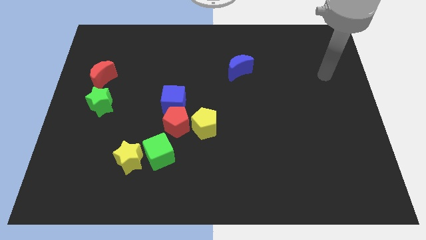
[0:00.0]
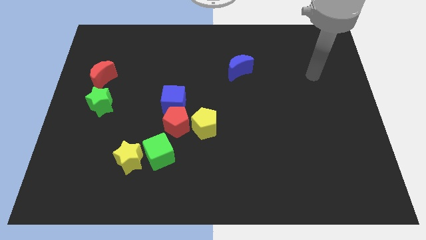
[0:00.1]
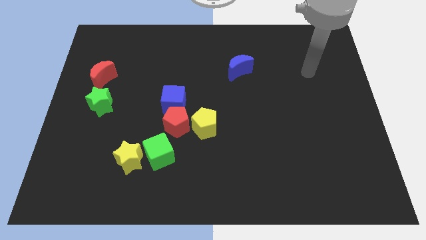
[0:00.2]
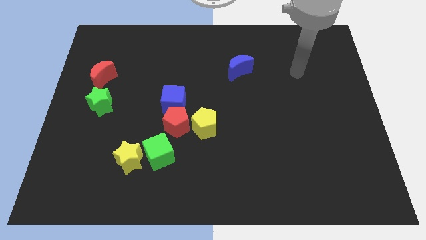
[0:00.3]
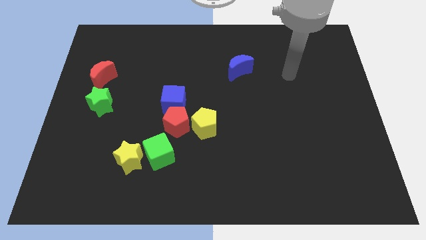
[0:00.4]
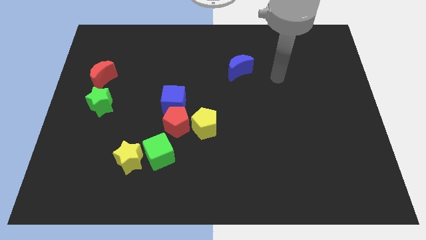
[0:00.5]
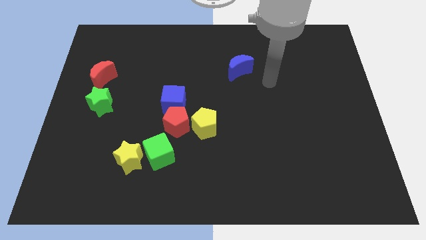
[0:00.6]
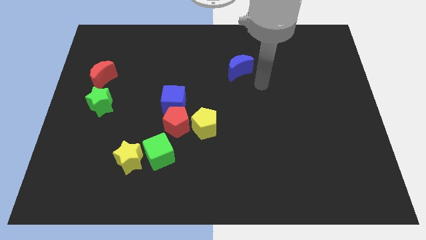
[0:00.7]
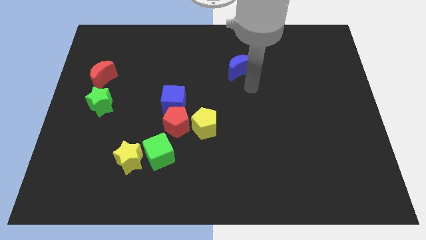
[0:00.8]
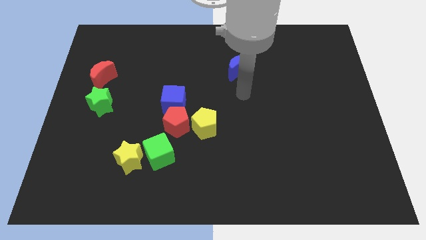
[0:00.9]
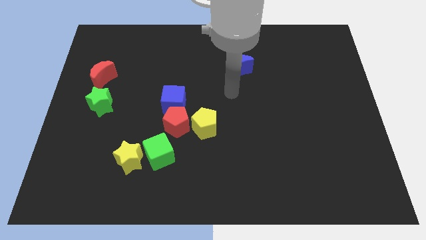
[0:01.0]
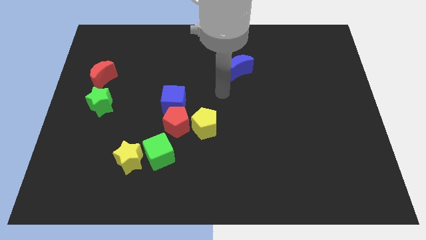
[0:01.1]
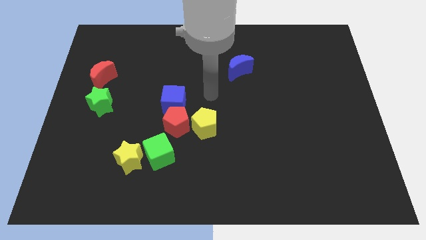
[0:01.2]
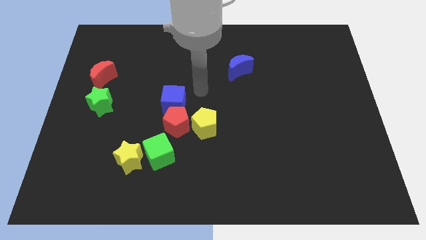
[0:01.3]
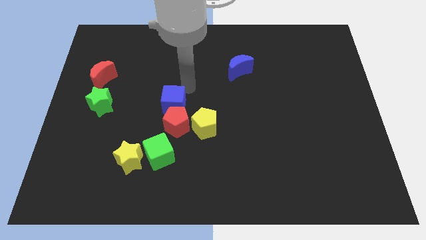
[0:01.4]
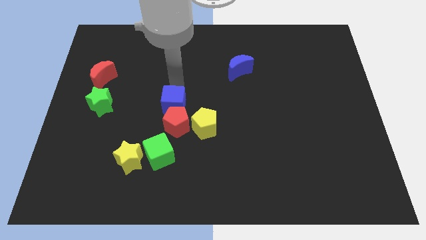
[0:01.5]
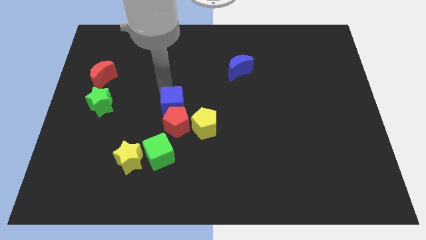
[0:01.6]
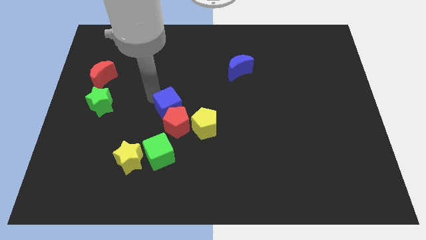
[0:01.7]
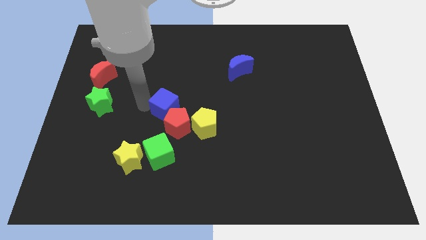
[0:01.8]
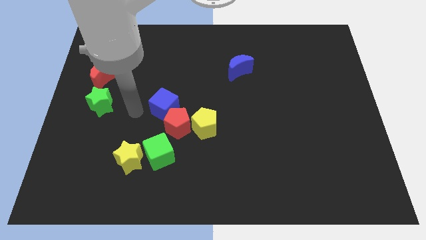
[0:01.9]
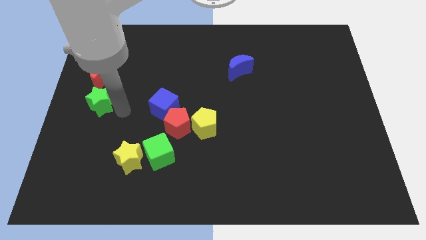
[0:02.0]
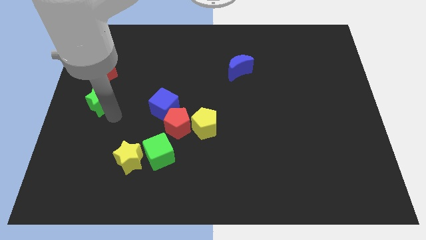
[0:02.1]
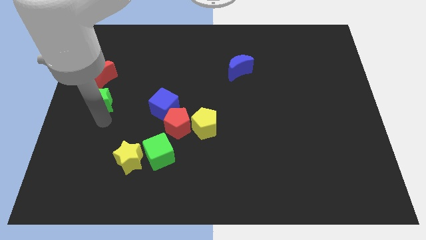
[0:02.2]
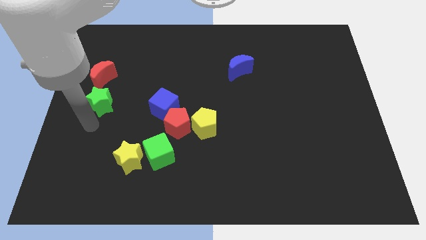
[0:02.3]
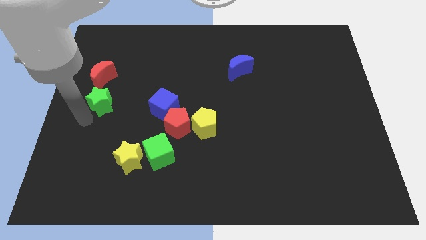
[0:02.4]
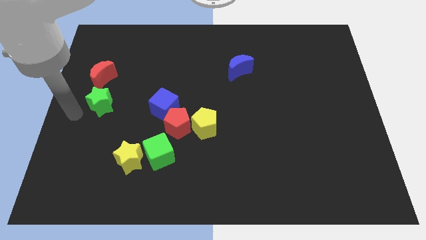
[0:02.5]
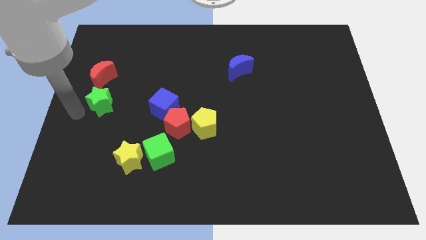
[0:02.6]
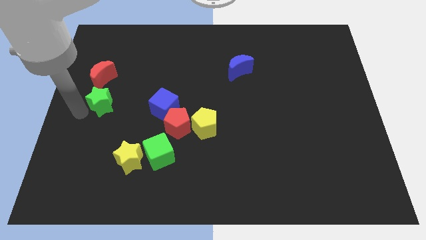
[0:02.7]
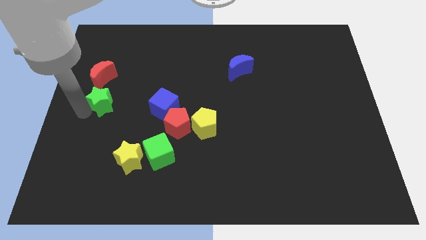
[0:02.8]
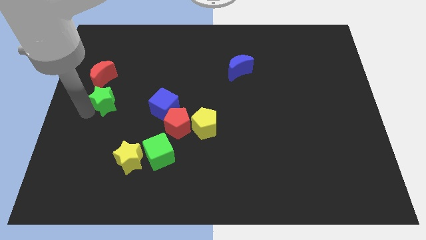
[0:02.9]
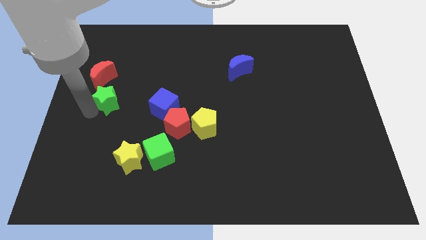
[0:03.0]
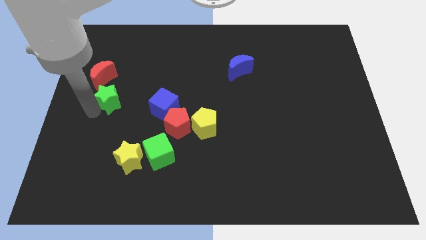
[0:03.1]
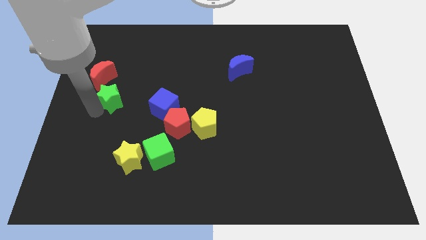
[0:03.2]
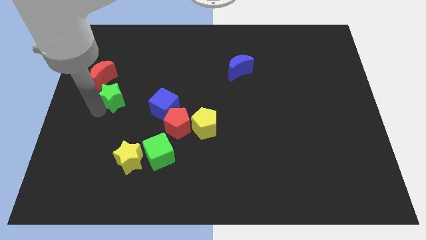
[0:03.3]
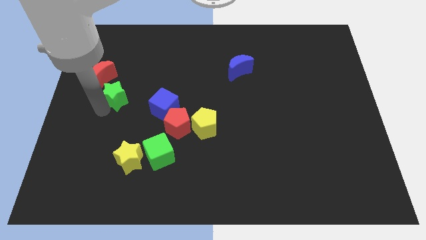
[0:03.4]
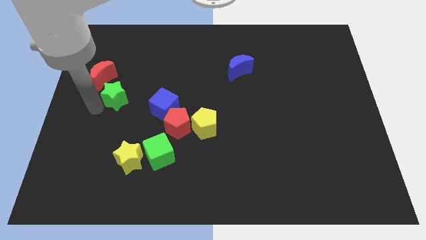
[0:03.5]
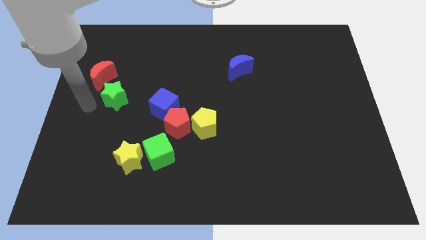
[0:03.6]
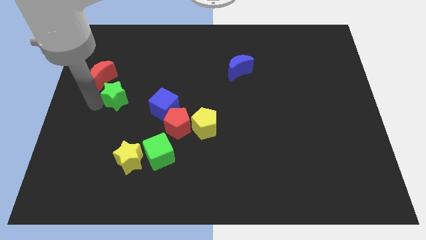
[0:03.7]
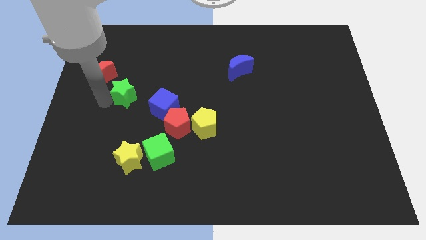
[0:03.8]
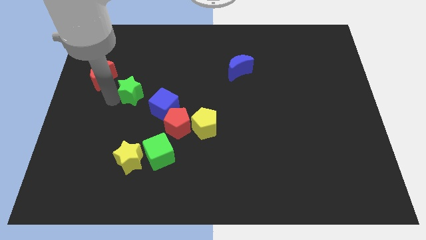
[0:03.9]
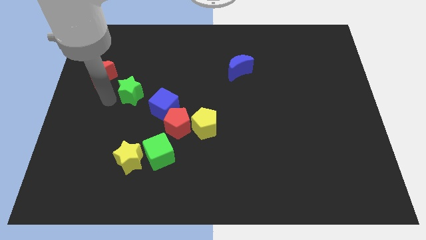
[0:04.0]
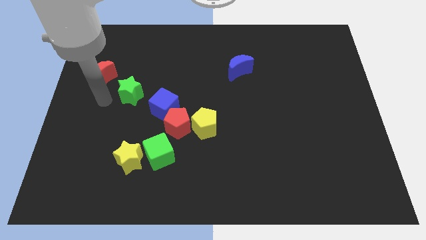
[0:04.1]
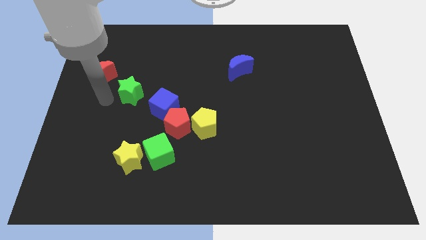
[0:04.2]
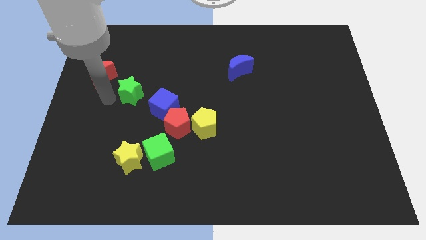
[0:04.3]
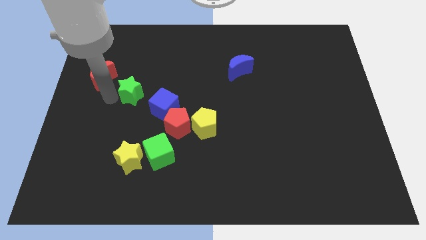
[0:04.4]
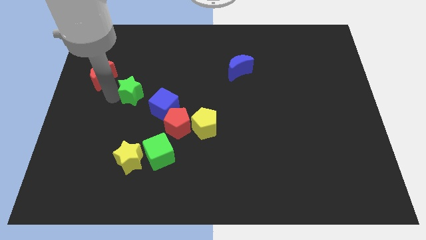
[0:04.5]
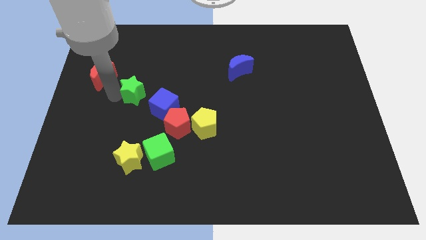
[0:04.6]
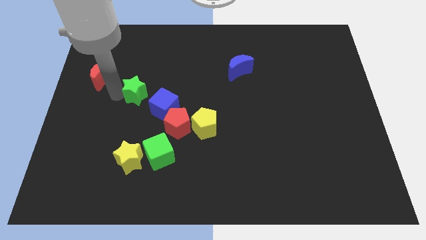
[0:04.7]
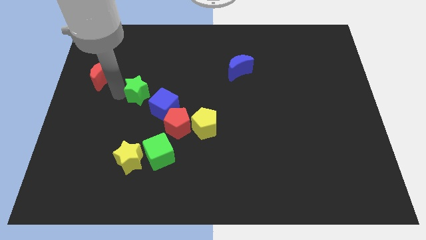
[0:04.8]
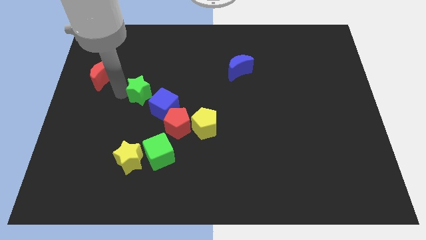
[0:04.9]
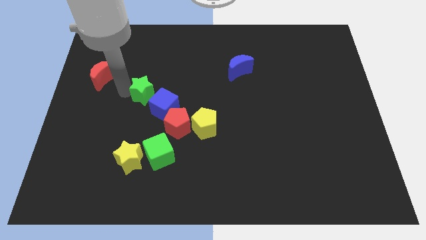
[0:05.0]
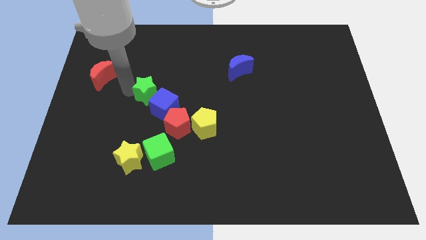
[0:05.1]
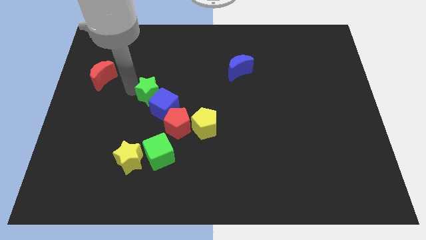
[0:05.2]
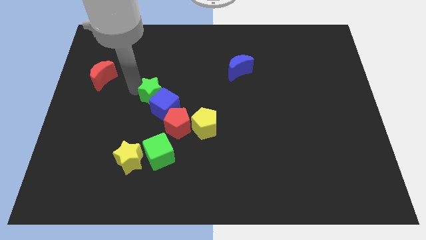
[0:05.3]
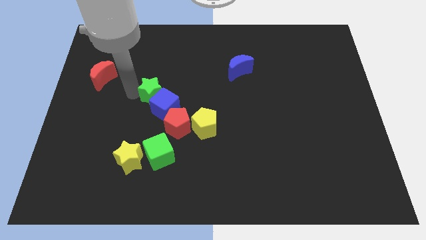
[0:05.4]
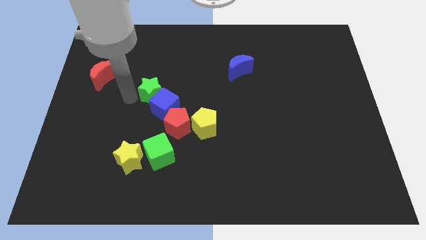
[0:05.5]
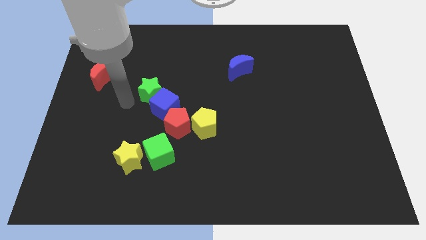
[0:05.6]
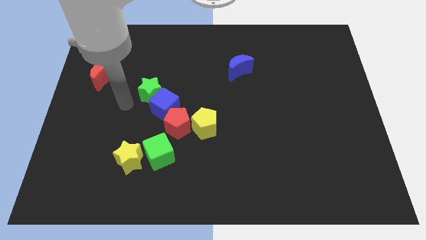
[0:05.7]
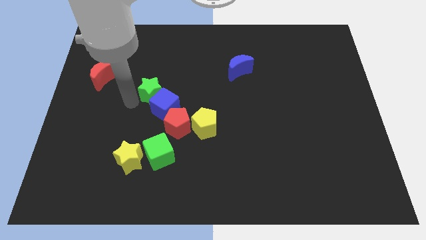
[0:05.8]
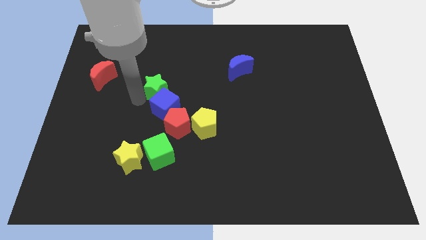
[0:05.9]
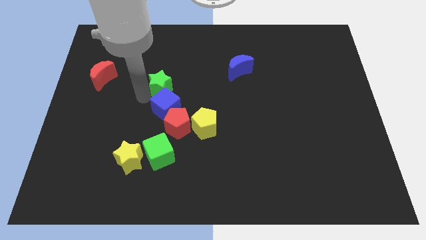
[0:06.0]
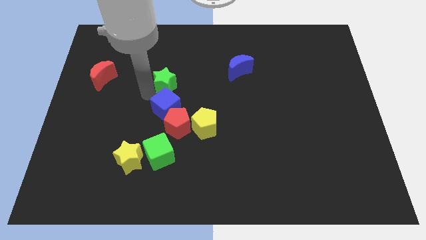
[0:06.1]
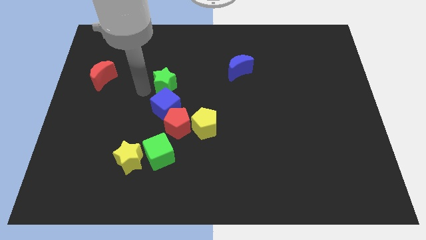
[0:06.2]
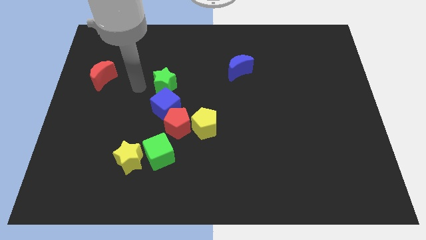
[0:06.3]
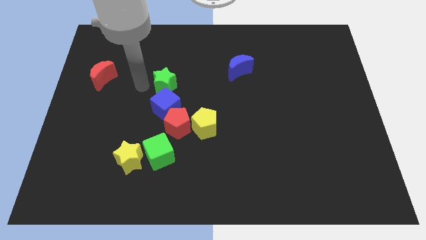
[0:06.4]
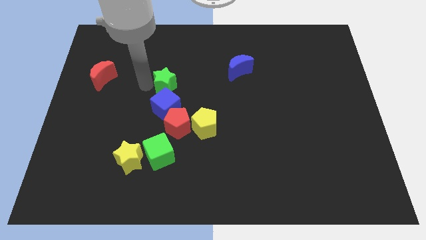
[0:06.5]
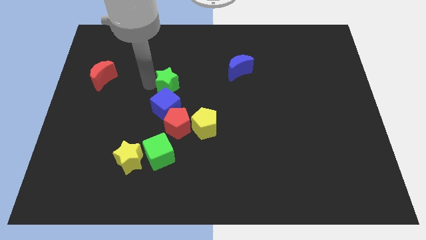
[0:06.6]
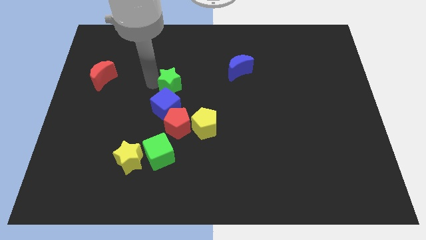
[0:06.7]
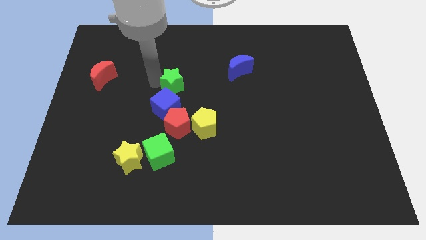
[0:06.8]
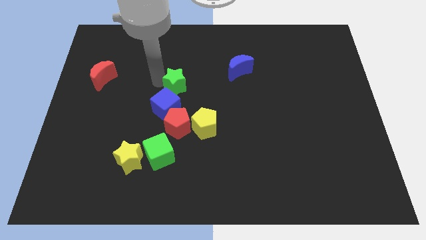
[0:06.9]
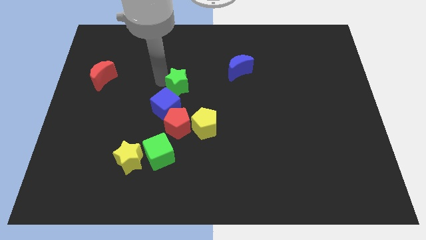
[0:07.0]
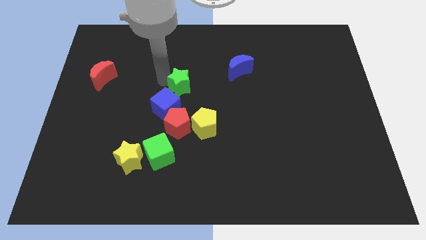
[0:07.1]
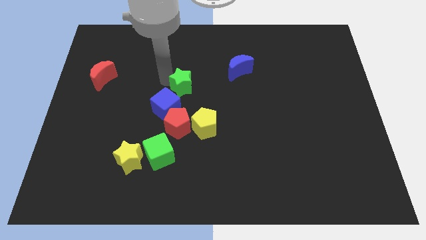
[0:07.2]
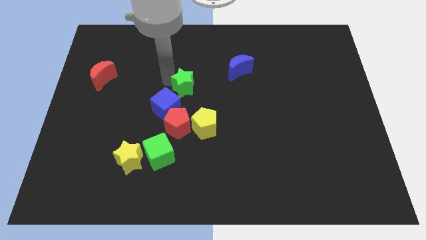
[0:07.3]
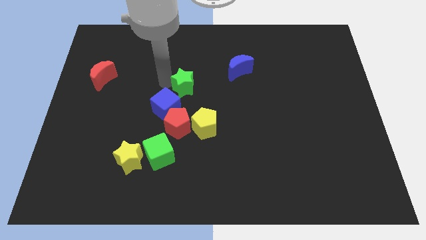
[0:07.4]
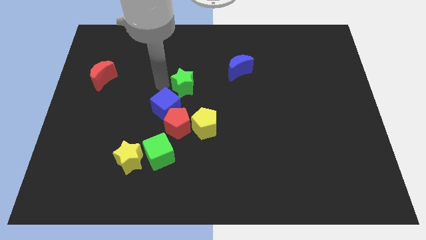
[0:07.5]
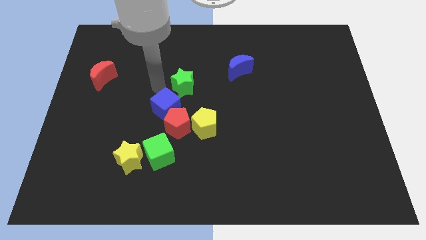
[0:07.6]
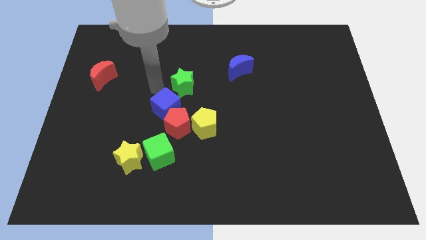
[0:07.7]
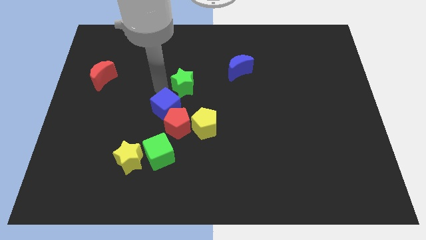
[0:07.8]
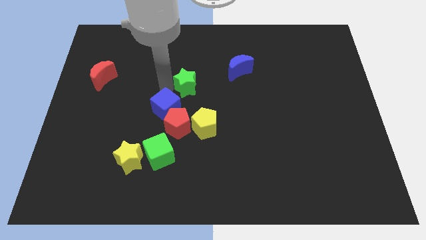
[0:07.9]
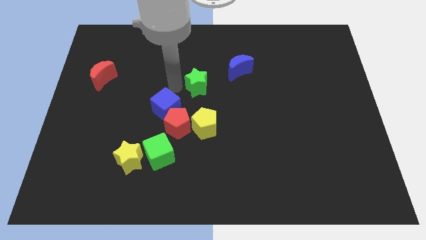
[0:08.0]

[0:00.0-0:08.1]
push the green star to the bottom left side of the blue moon
